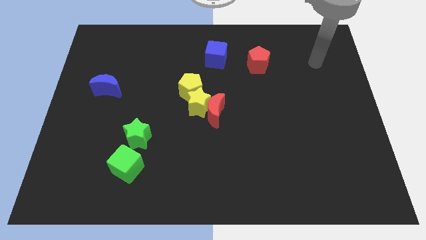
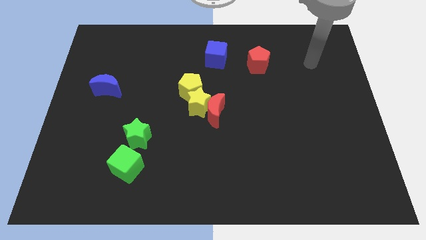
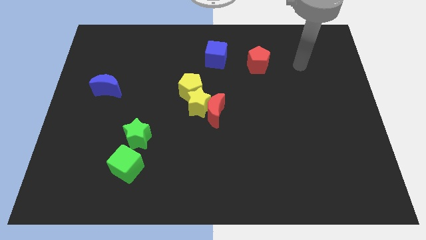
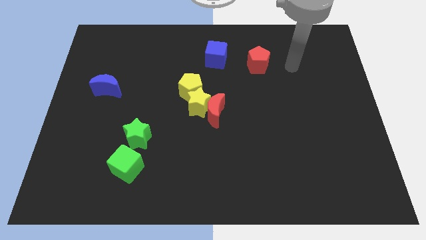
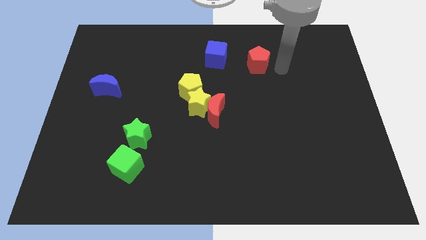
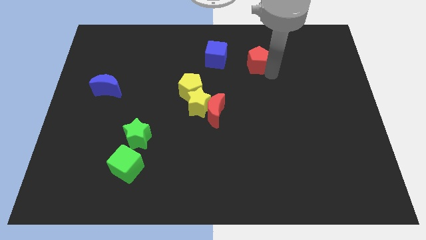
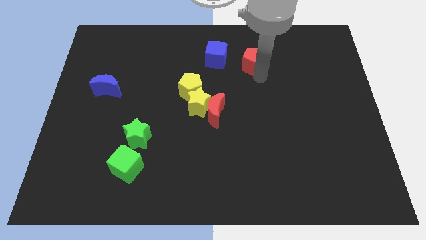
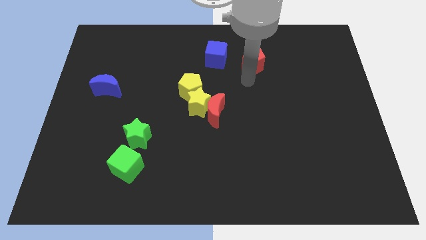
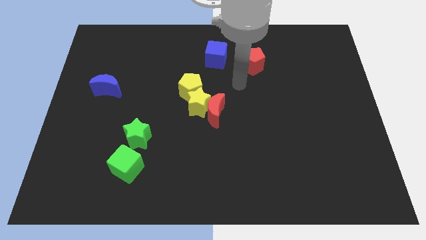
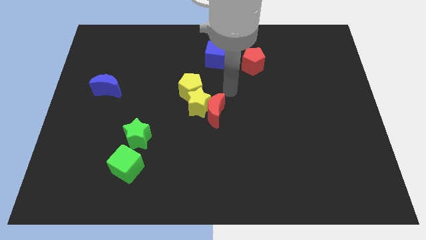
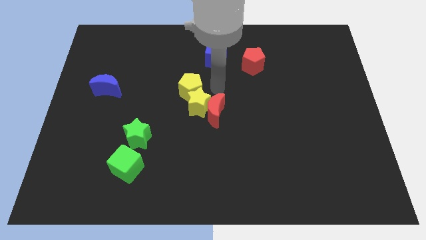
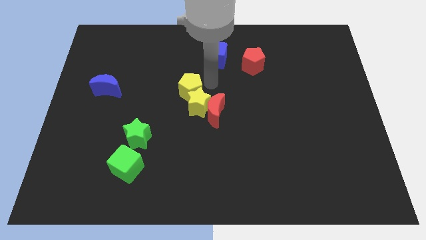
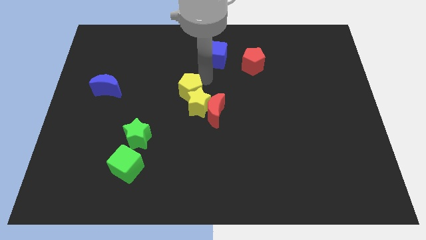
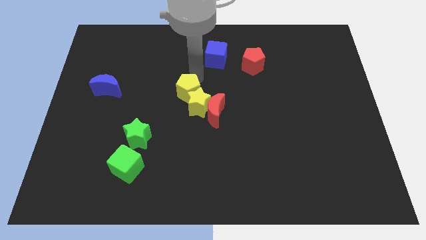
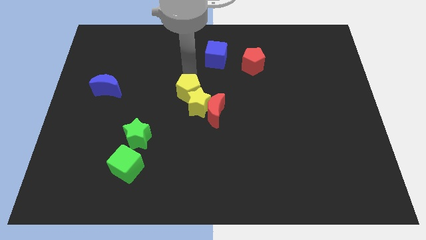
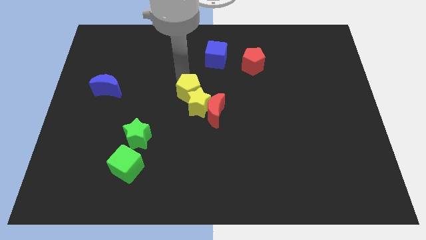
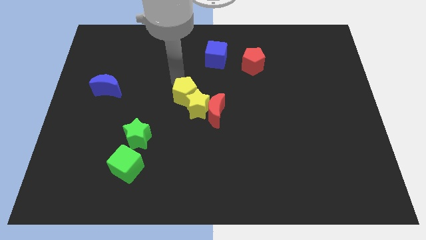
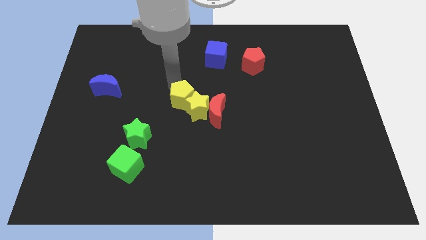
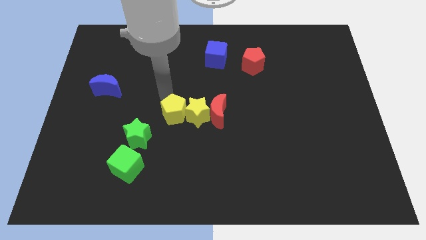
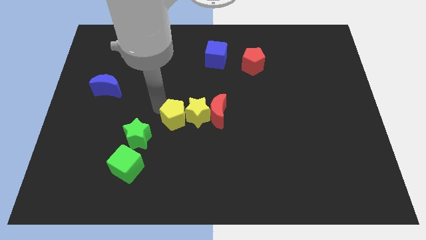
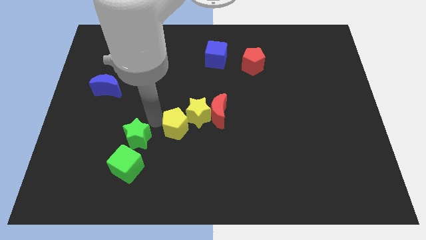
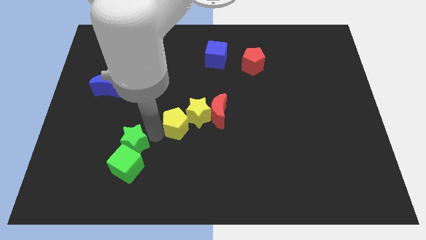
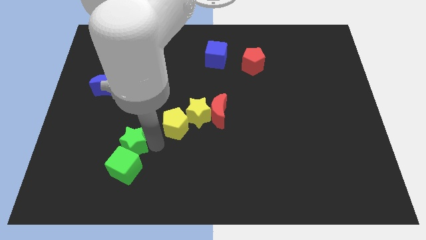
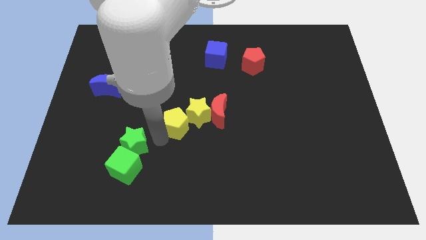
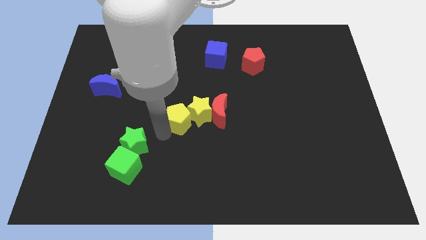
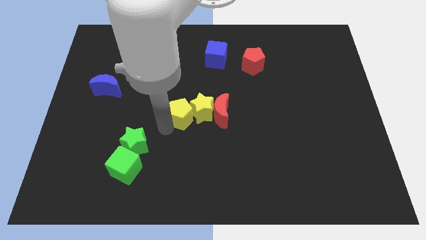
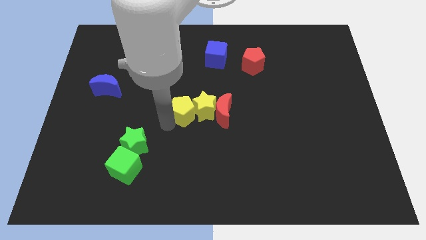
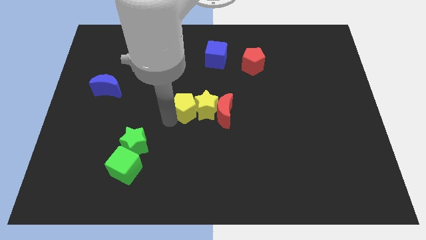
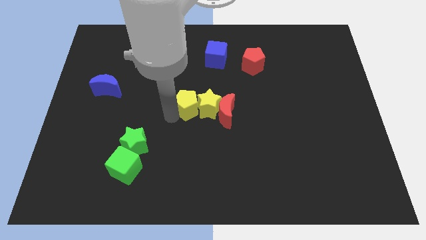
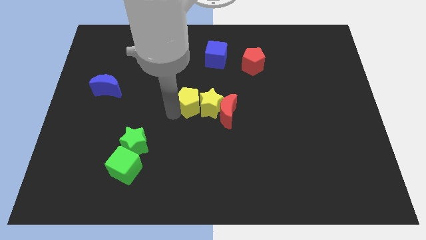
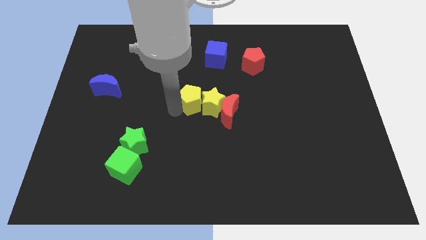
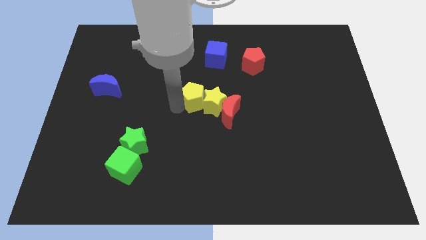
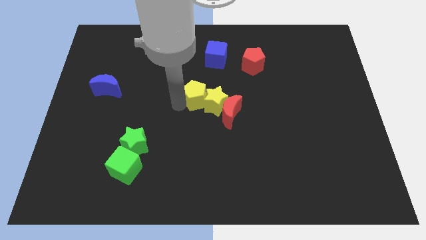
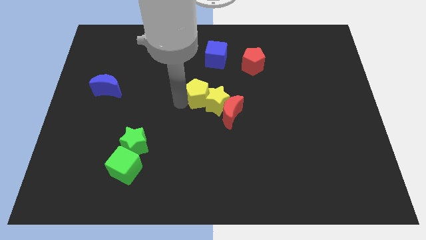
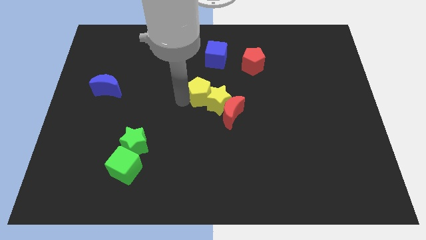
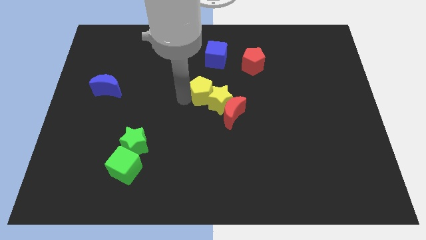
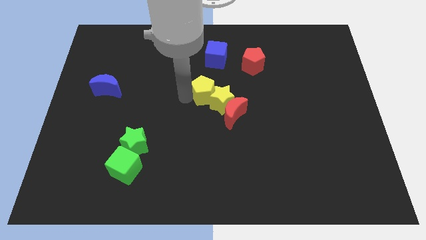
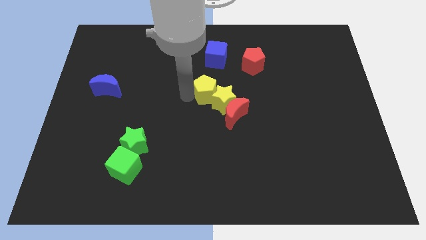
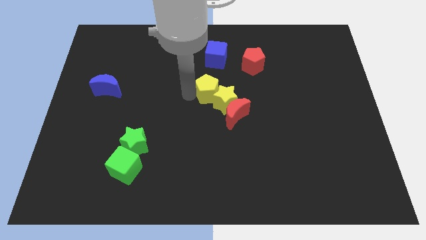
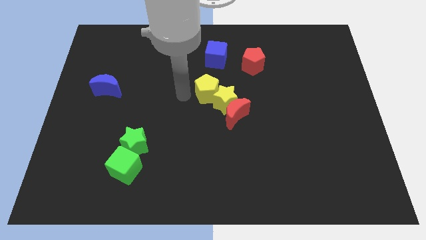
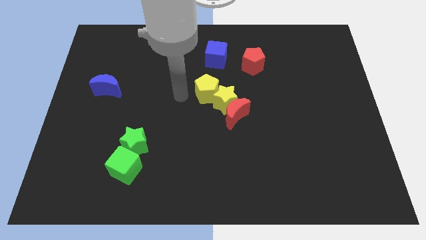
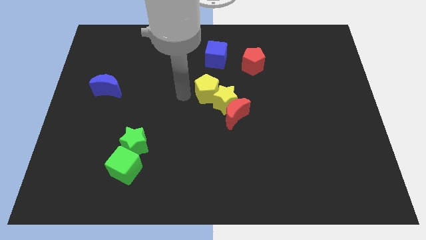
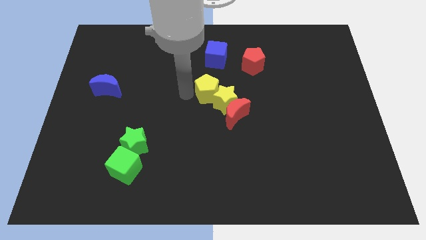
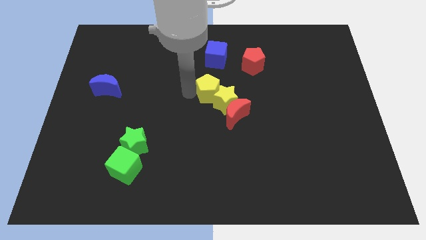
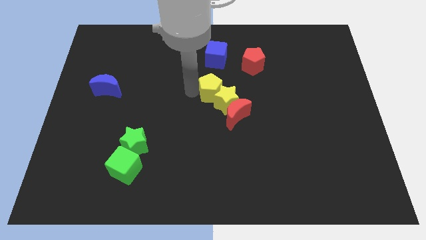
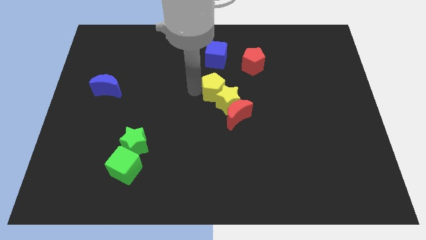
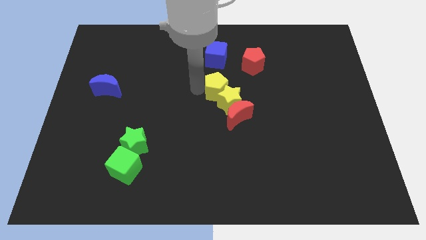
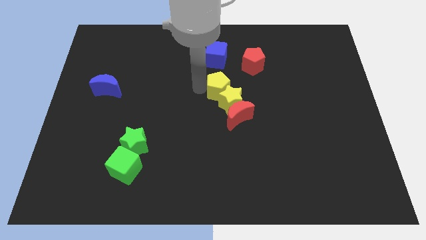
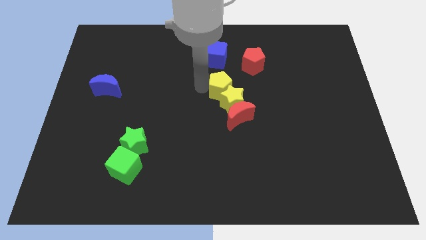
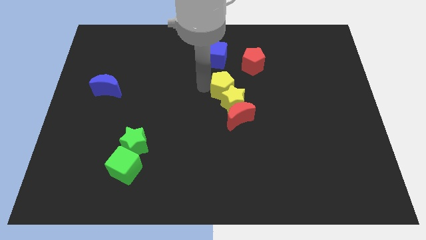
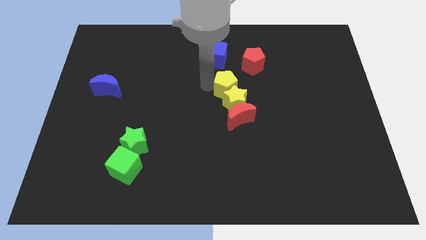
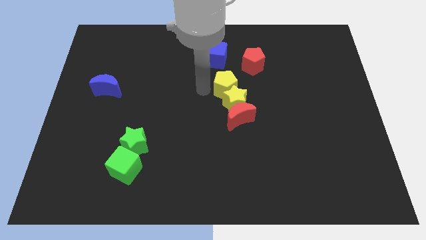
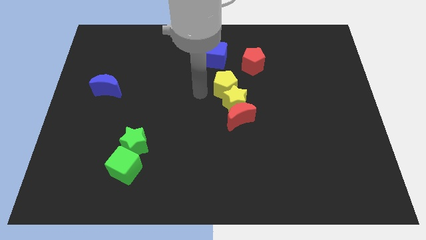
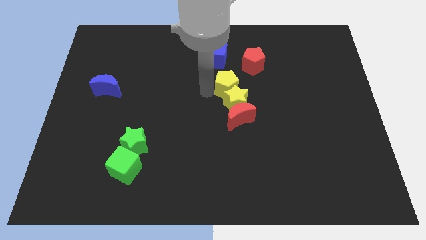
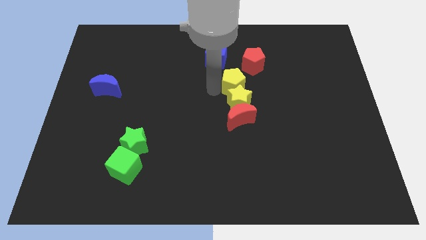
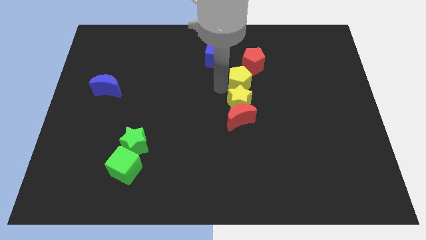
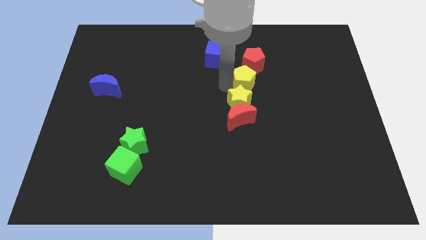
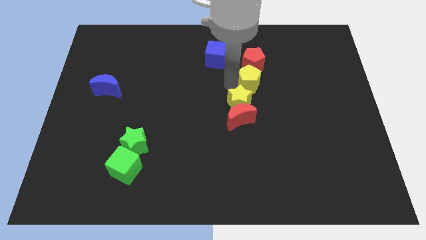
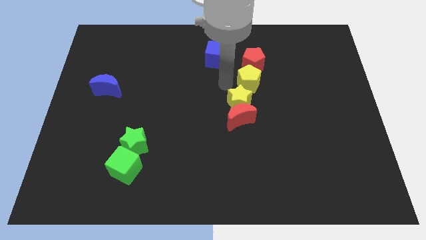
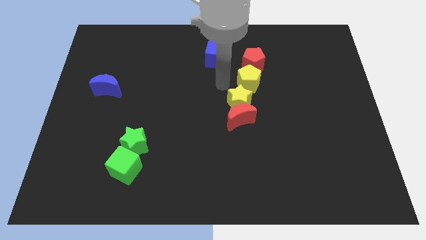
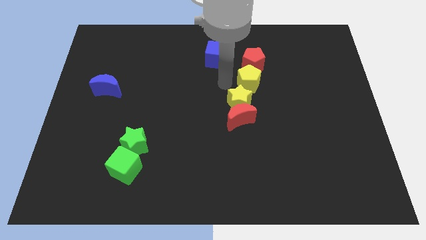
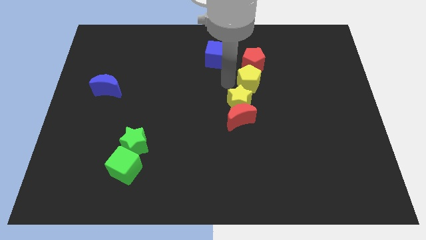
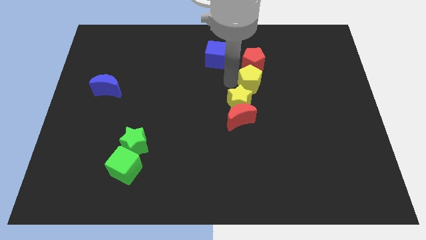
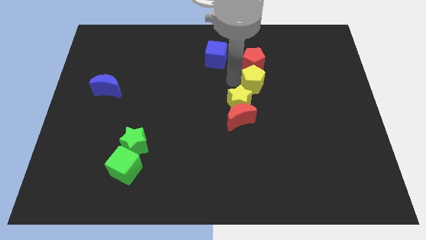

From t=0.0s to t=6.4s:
move the yellow pentagon to the bottom right of the red pentagon
